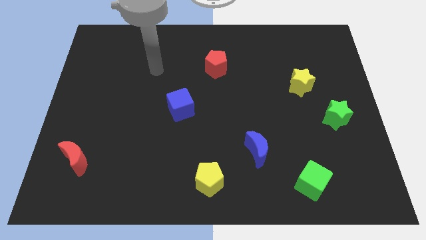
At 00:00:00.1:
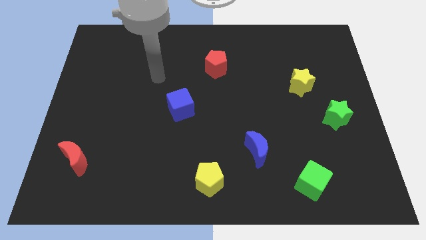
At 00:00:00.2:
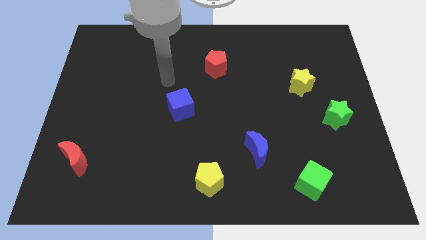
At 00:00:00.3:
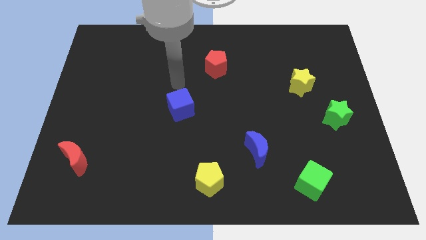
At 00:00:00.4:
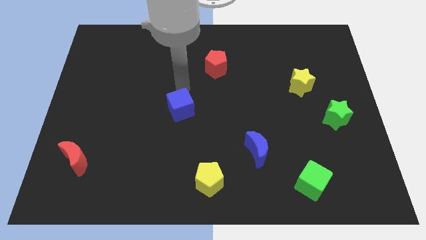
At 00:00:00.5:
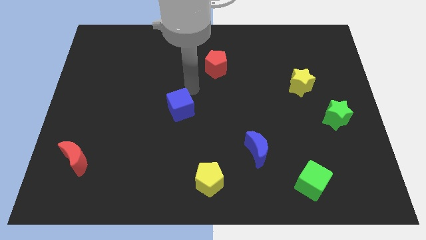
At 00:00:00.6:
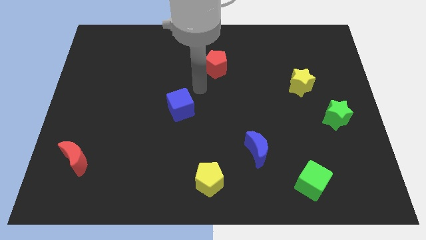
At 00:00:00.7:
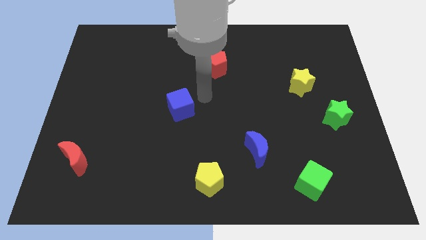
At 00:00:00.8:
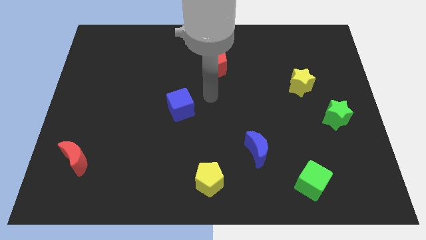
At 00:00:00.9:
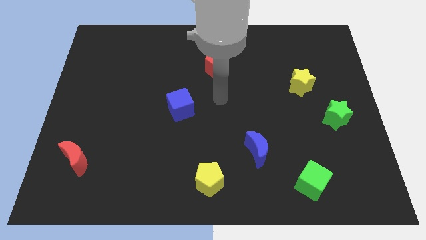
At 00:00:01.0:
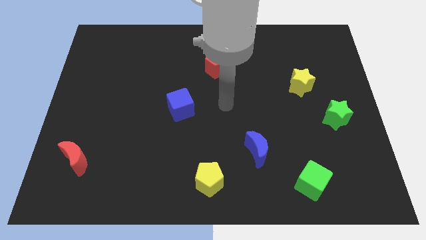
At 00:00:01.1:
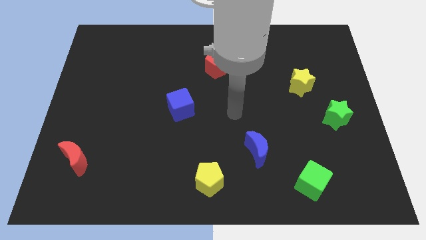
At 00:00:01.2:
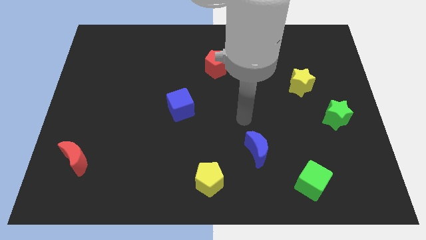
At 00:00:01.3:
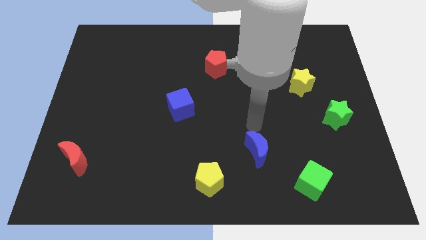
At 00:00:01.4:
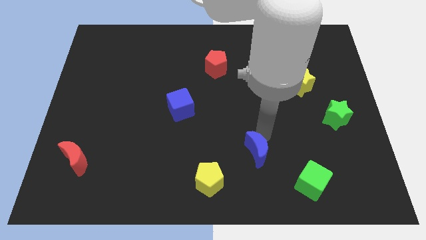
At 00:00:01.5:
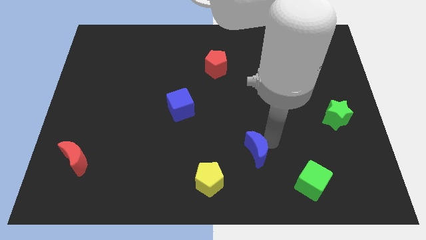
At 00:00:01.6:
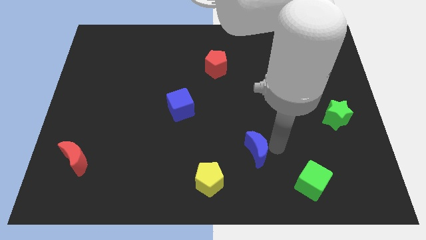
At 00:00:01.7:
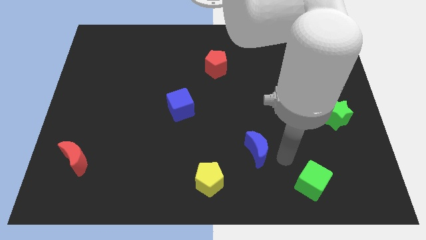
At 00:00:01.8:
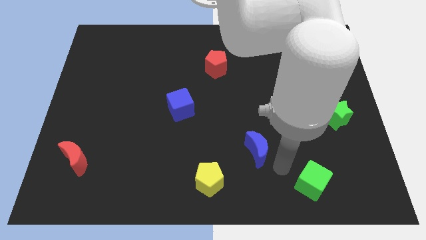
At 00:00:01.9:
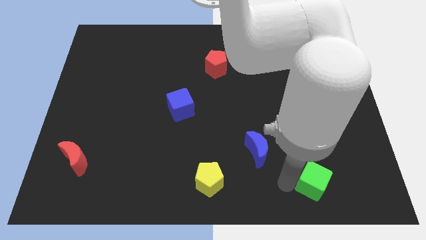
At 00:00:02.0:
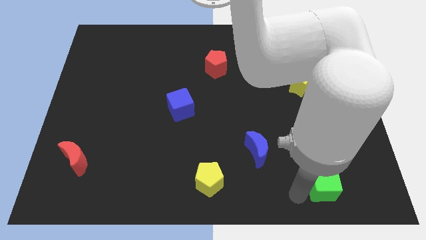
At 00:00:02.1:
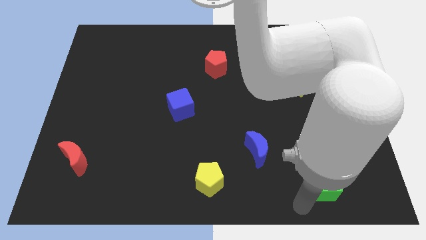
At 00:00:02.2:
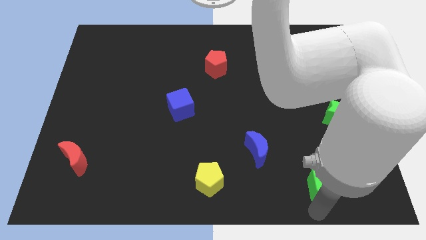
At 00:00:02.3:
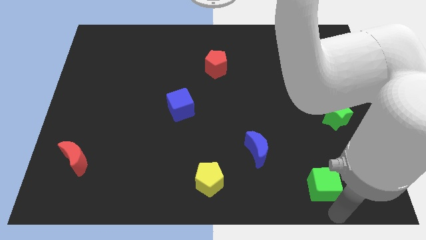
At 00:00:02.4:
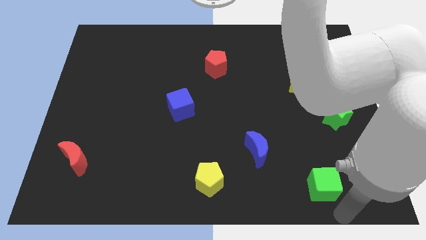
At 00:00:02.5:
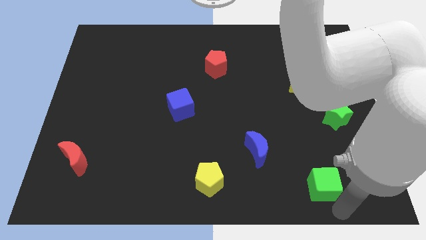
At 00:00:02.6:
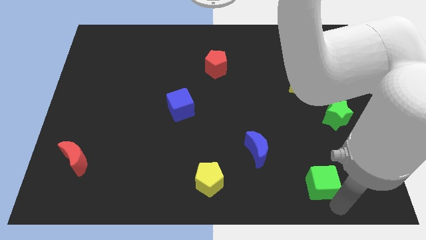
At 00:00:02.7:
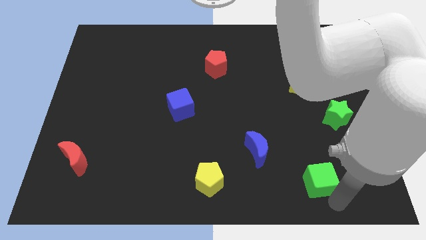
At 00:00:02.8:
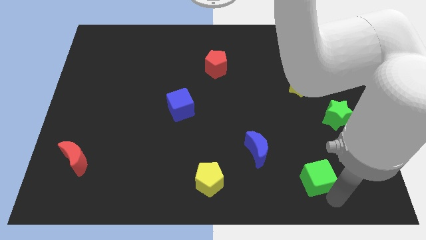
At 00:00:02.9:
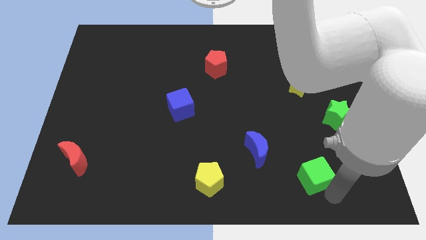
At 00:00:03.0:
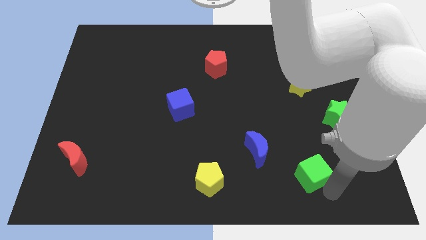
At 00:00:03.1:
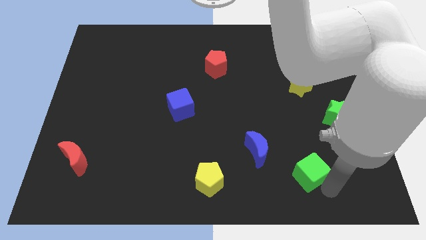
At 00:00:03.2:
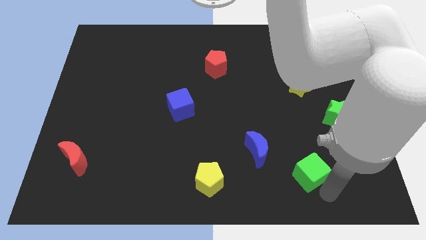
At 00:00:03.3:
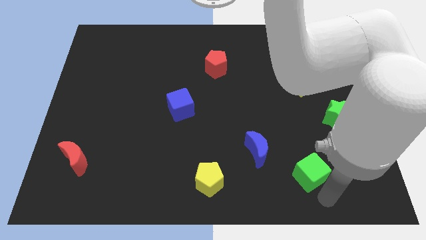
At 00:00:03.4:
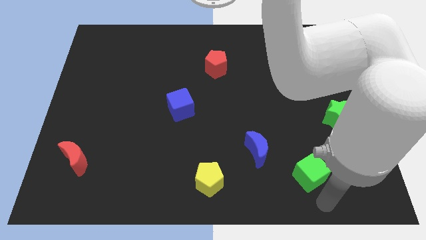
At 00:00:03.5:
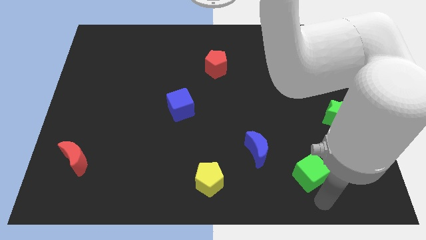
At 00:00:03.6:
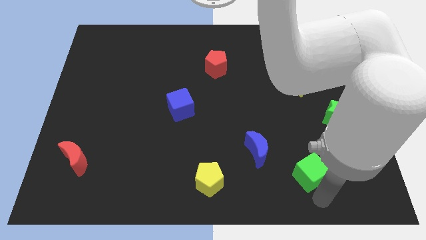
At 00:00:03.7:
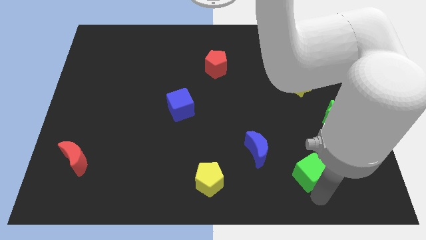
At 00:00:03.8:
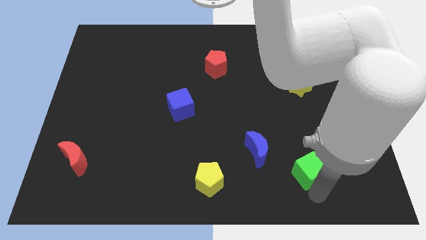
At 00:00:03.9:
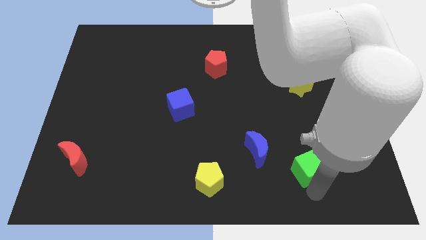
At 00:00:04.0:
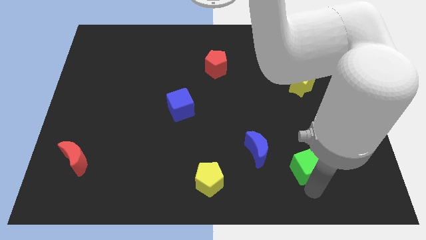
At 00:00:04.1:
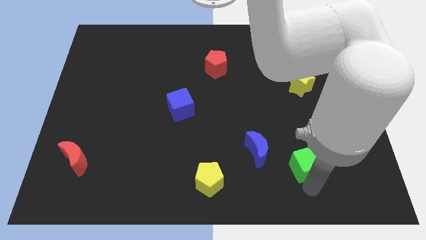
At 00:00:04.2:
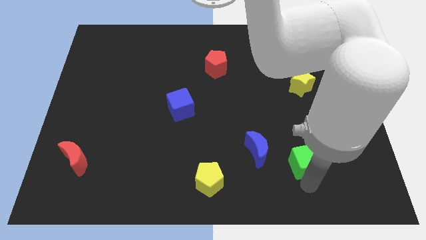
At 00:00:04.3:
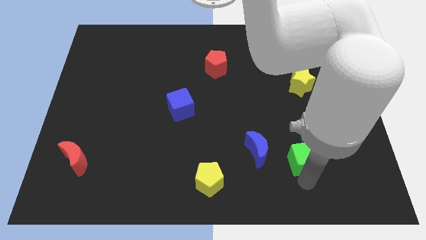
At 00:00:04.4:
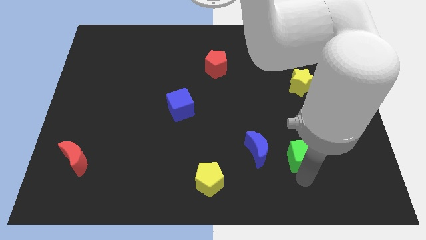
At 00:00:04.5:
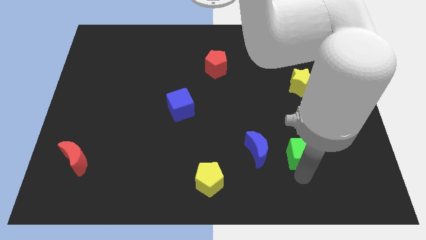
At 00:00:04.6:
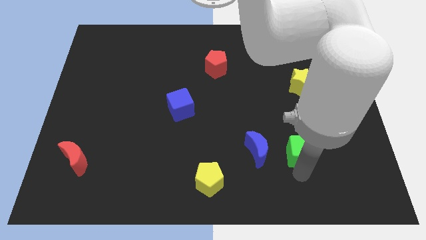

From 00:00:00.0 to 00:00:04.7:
push the green cube a bit upwards

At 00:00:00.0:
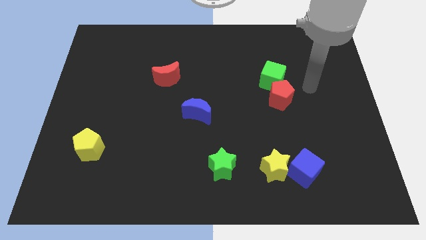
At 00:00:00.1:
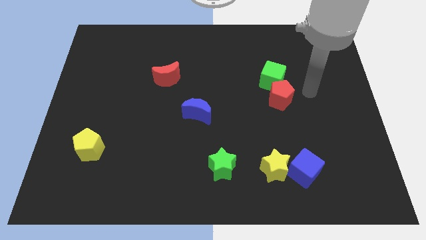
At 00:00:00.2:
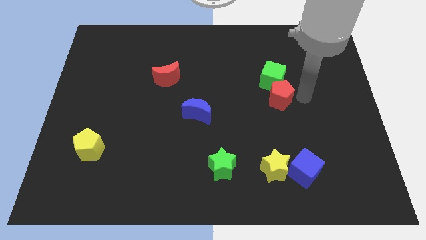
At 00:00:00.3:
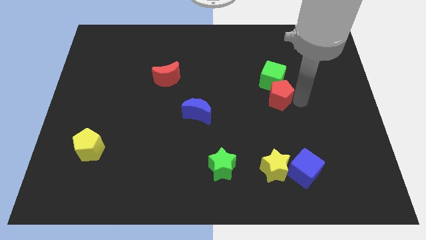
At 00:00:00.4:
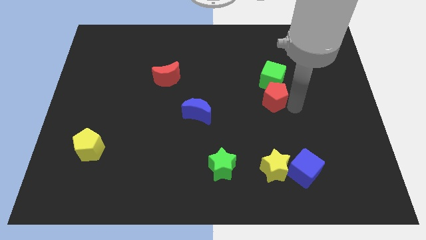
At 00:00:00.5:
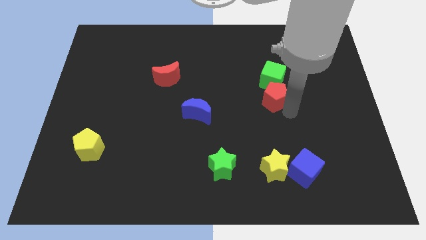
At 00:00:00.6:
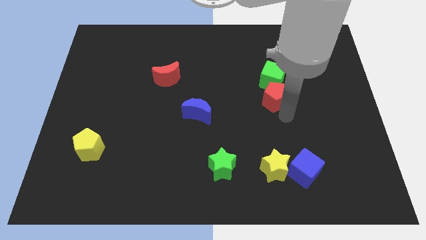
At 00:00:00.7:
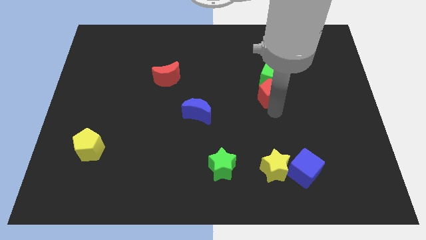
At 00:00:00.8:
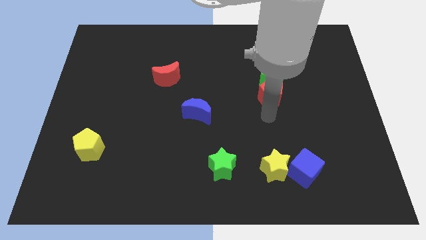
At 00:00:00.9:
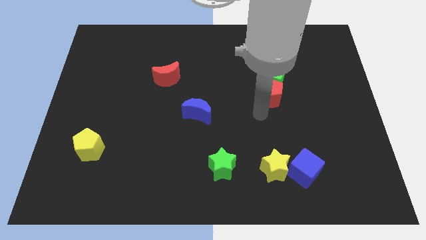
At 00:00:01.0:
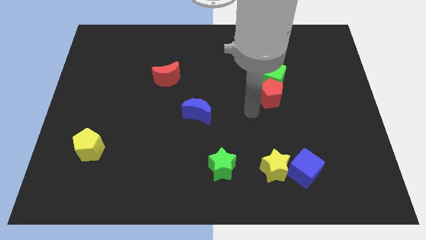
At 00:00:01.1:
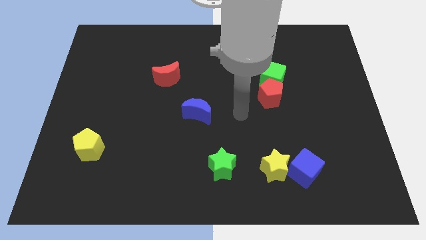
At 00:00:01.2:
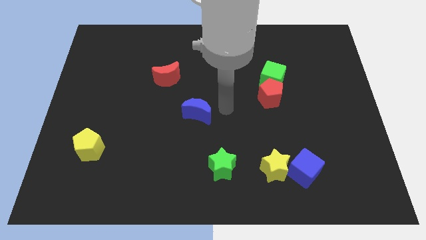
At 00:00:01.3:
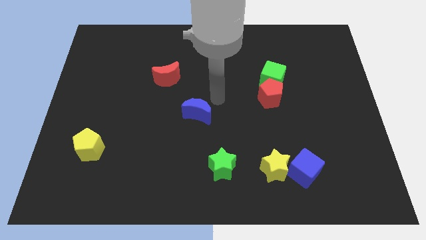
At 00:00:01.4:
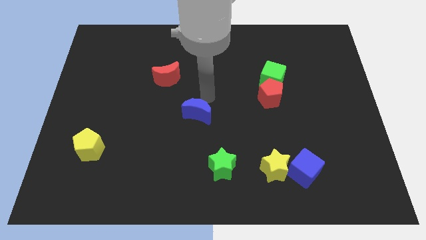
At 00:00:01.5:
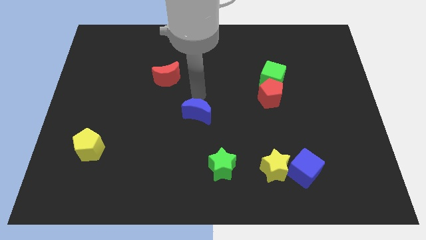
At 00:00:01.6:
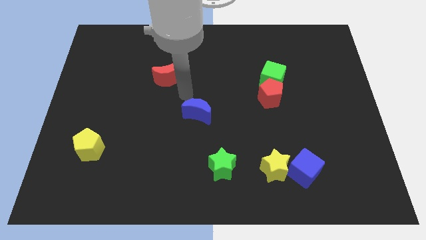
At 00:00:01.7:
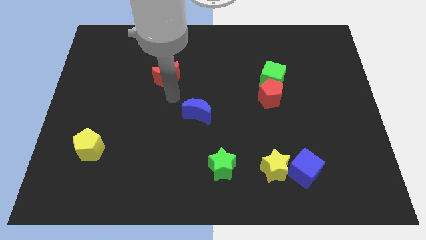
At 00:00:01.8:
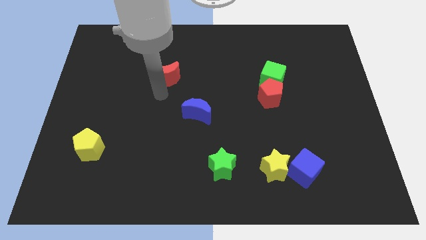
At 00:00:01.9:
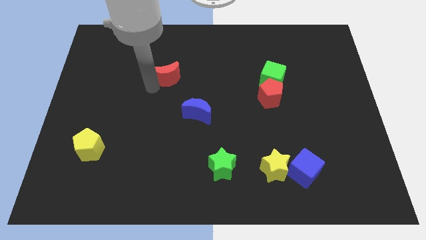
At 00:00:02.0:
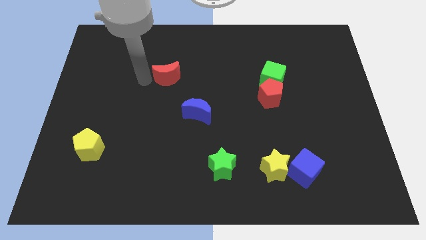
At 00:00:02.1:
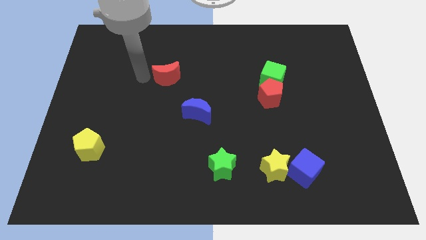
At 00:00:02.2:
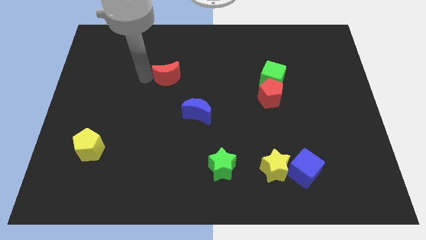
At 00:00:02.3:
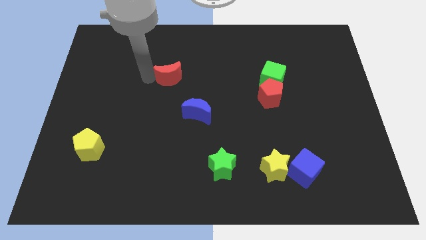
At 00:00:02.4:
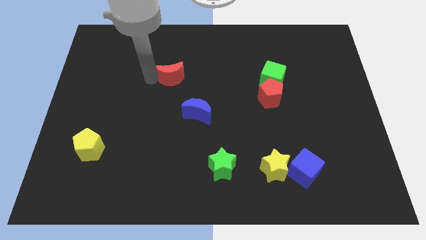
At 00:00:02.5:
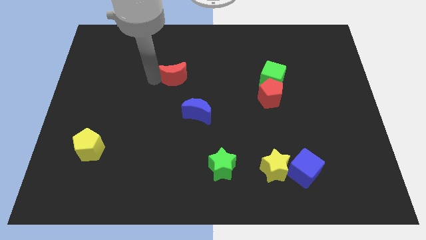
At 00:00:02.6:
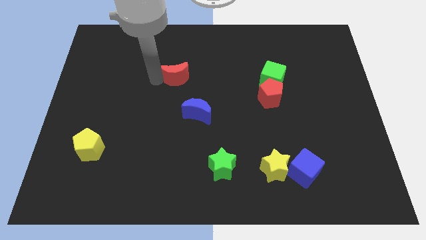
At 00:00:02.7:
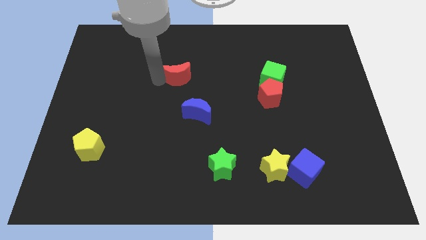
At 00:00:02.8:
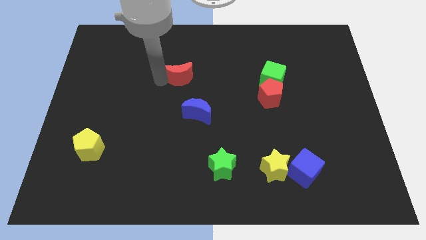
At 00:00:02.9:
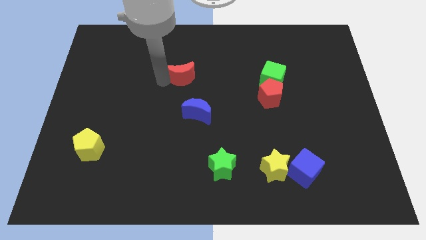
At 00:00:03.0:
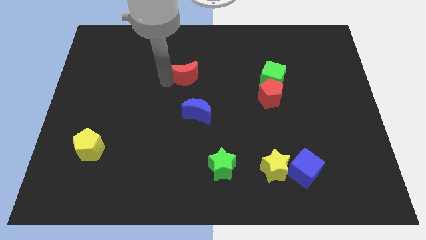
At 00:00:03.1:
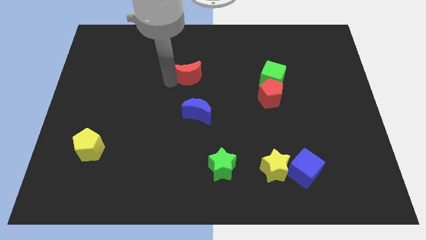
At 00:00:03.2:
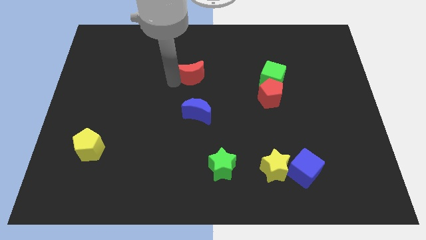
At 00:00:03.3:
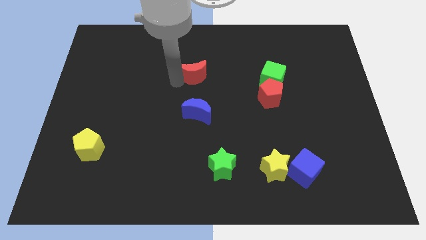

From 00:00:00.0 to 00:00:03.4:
slightly slide the red moon right

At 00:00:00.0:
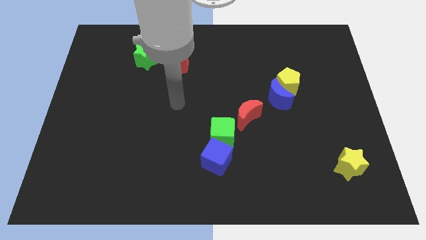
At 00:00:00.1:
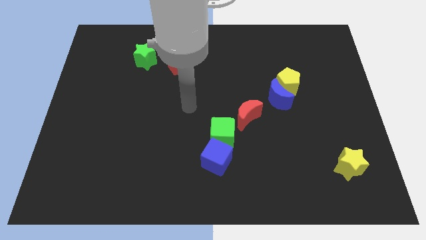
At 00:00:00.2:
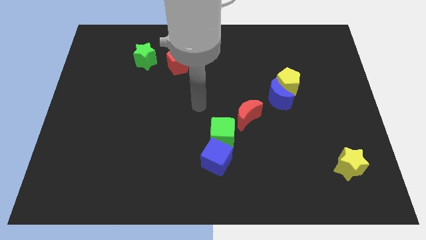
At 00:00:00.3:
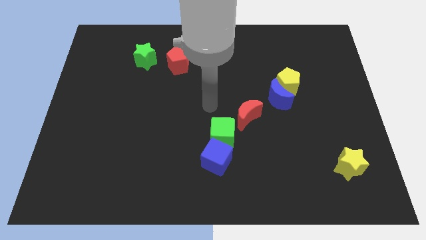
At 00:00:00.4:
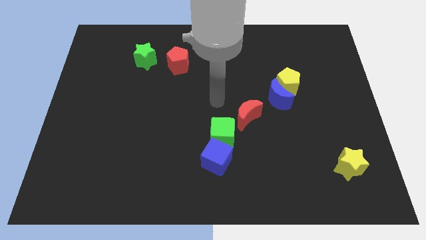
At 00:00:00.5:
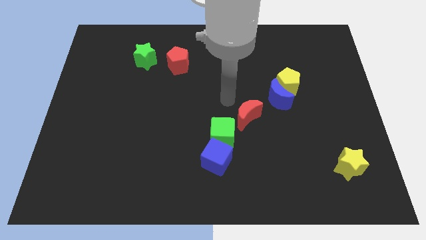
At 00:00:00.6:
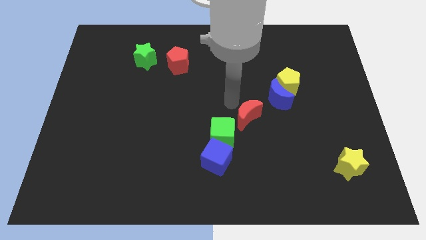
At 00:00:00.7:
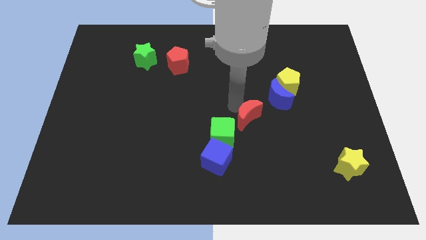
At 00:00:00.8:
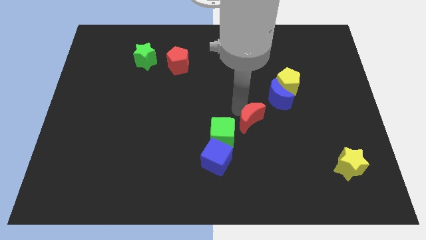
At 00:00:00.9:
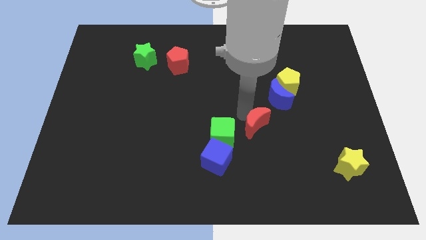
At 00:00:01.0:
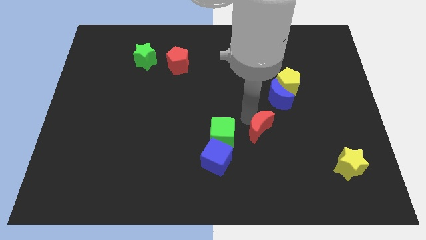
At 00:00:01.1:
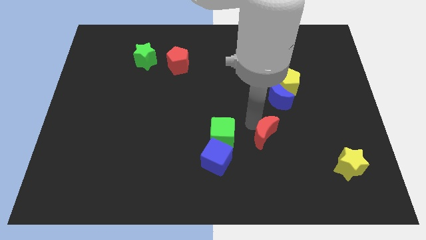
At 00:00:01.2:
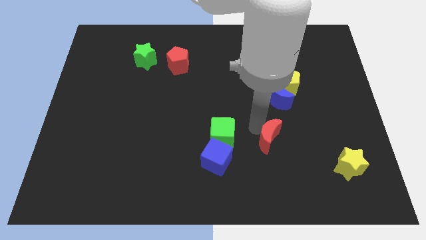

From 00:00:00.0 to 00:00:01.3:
push the red moon somewhat down and right diagonally
